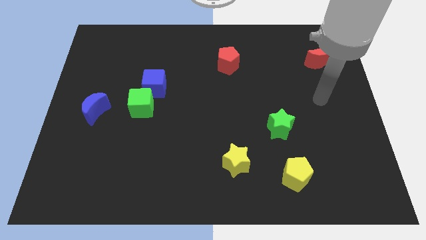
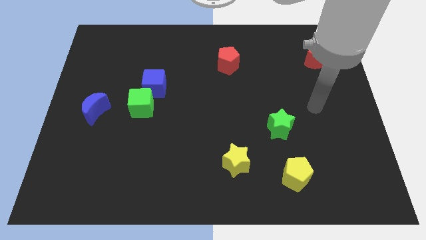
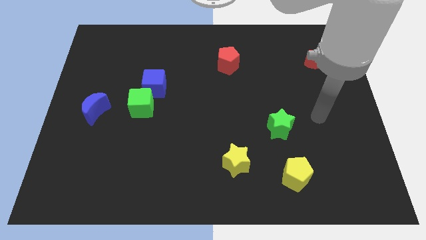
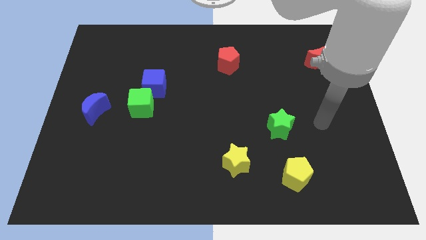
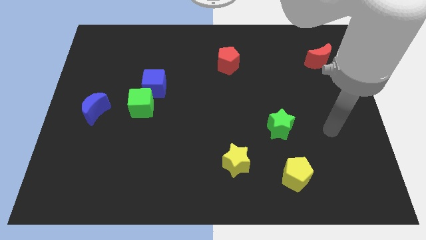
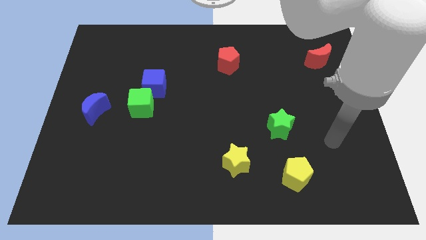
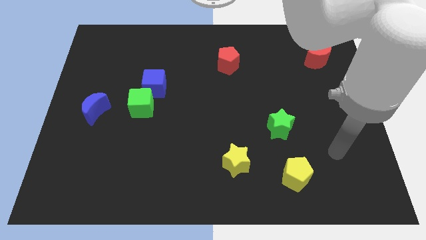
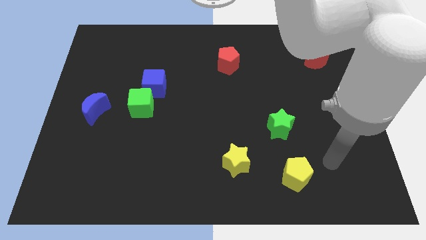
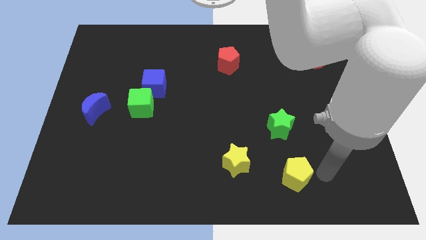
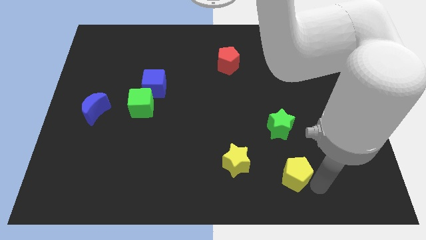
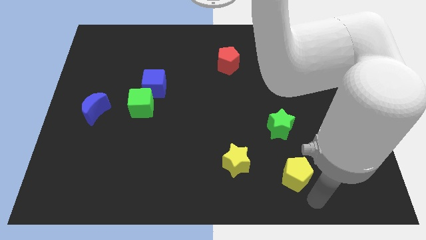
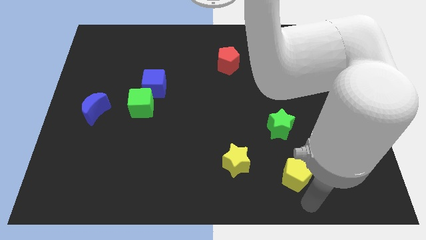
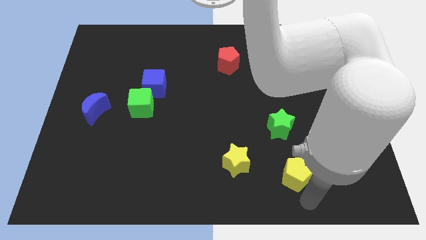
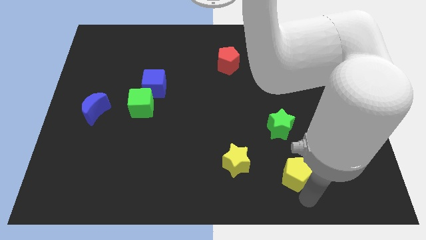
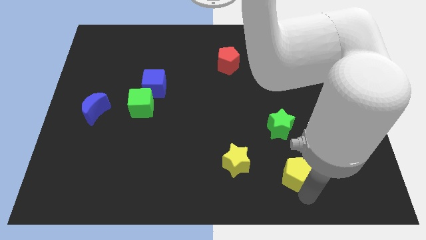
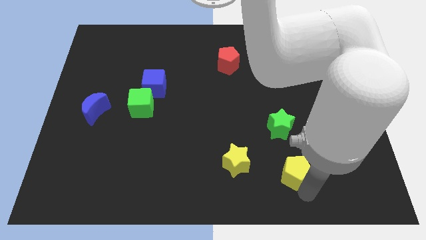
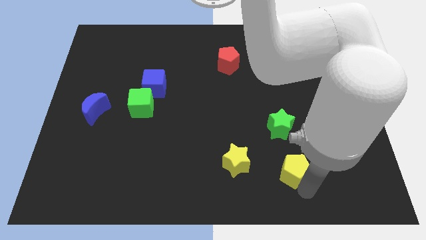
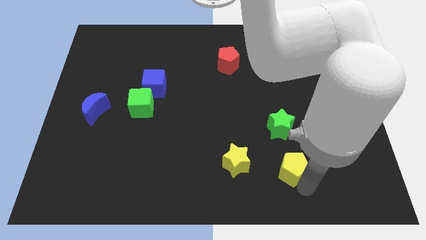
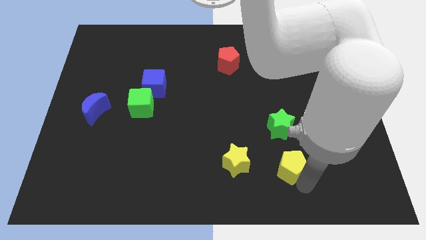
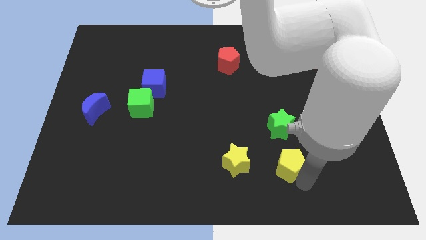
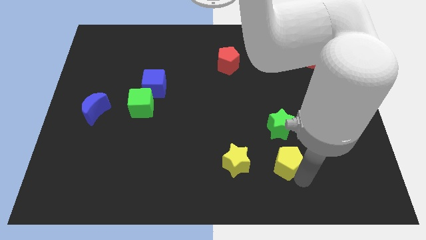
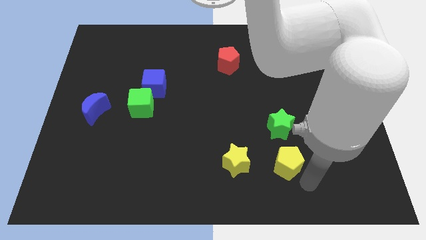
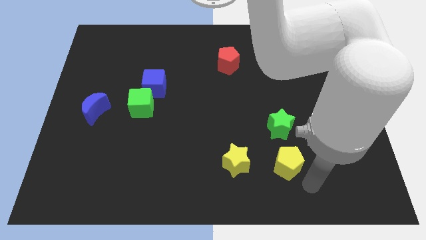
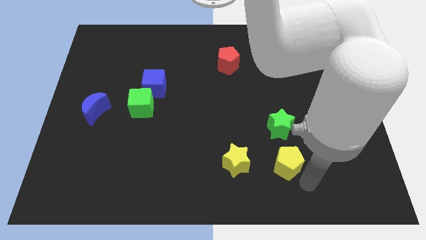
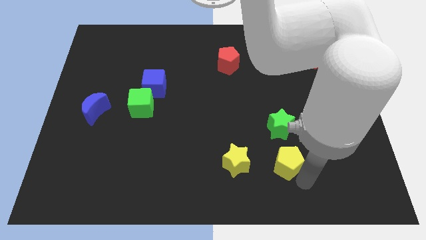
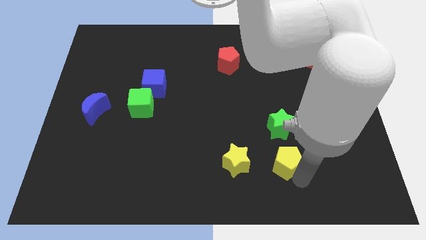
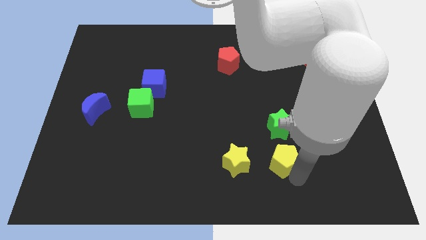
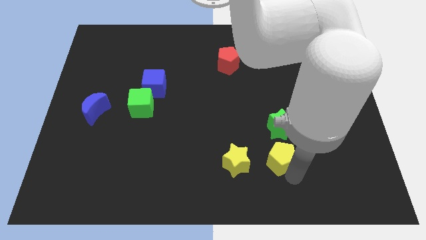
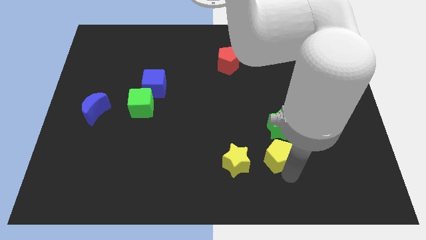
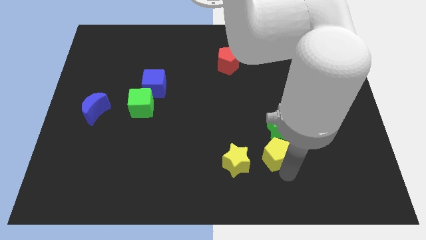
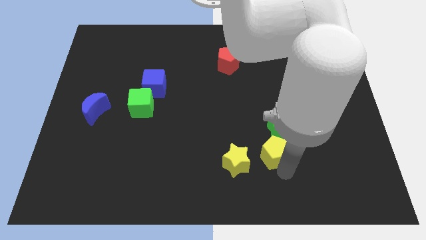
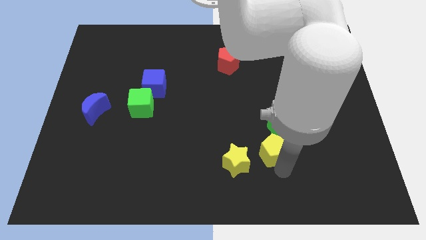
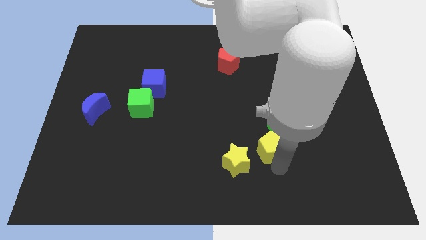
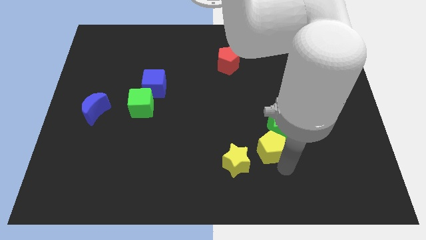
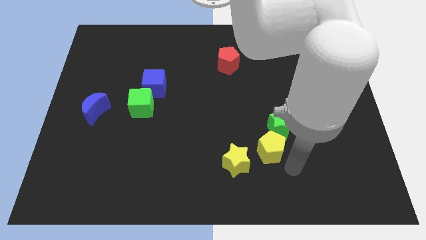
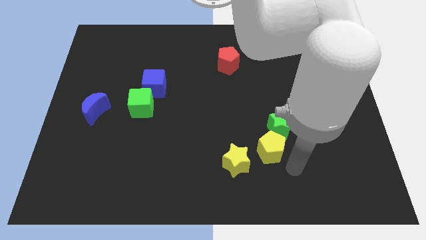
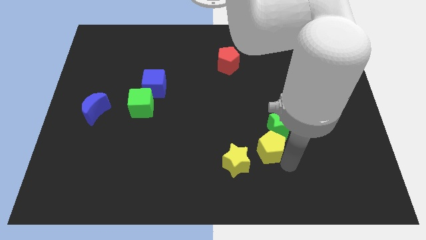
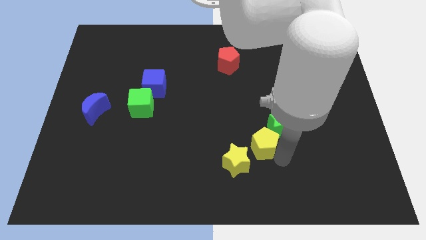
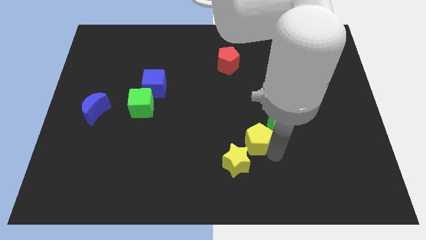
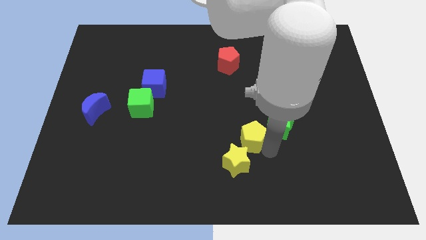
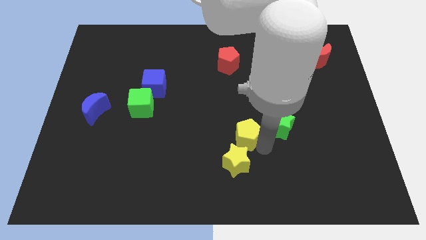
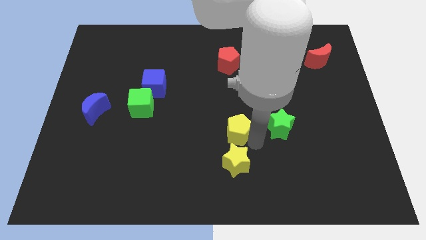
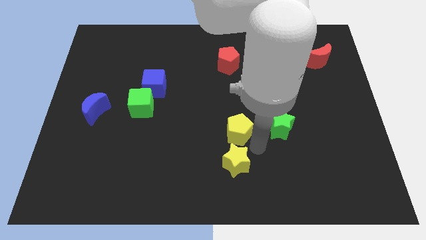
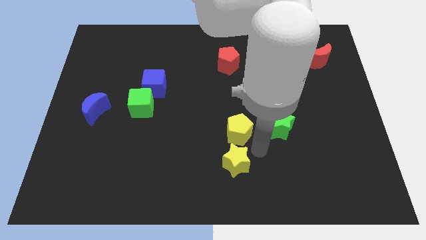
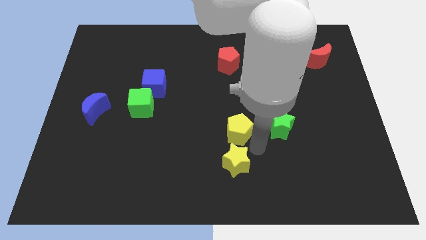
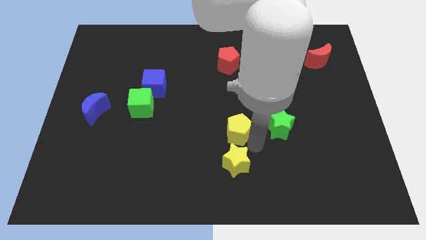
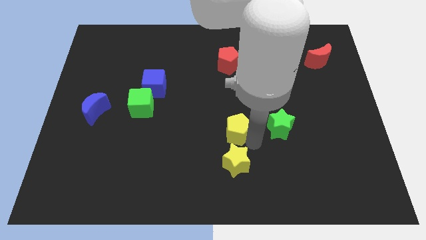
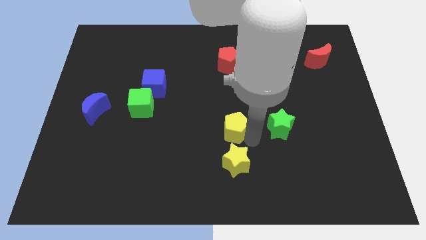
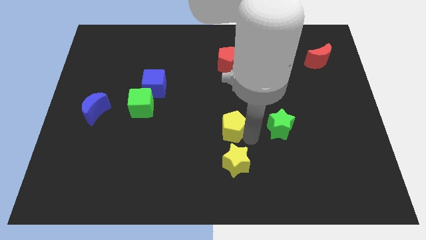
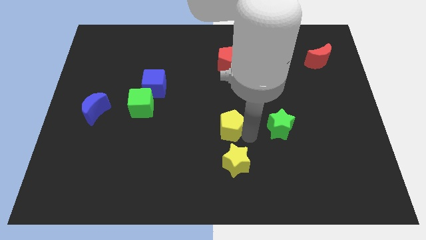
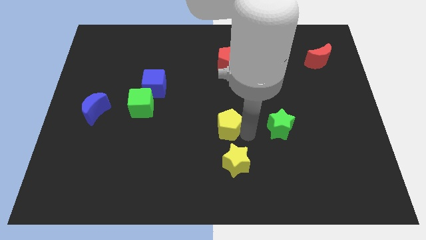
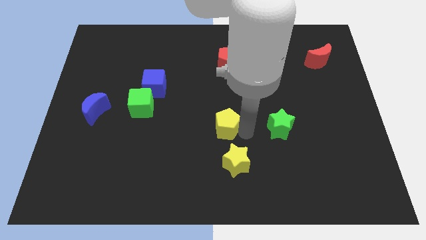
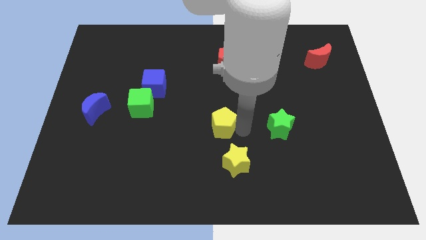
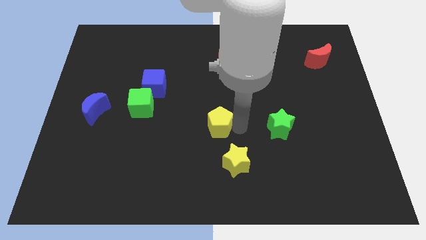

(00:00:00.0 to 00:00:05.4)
push the yellow pentagon diagonally upwards and left

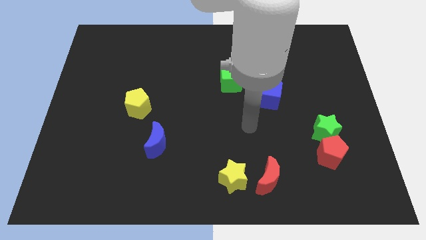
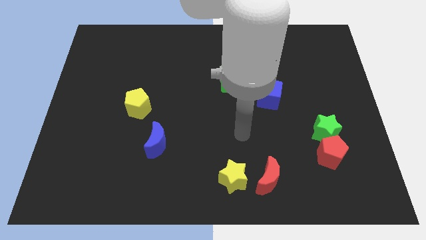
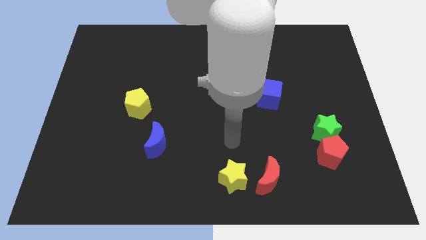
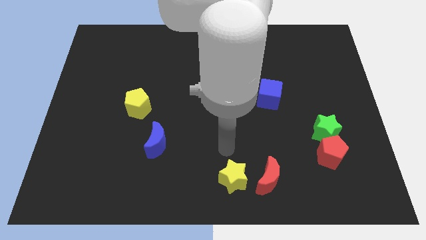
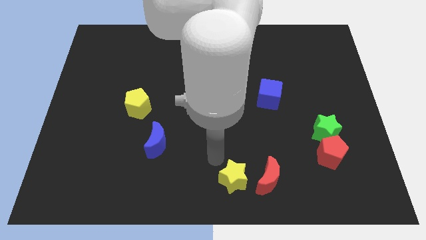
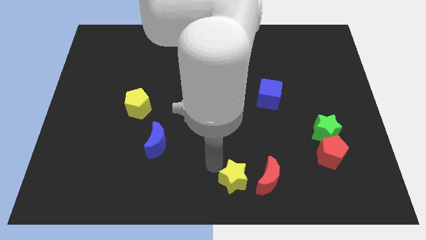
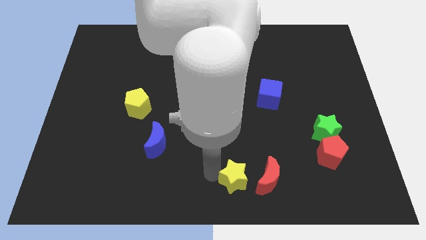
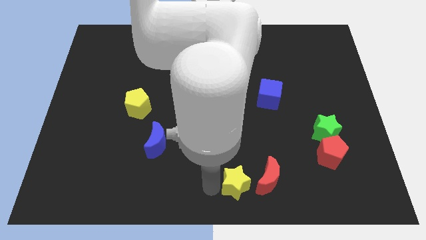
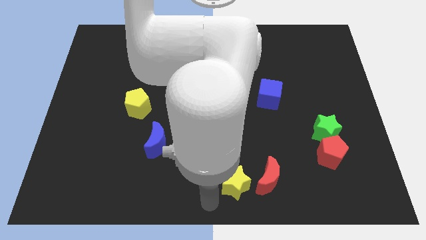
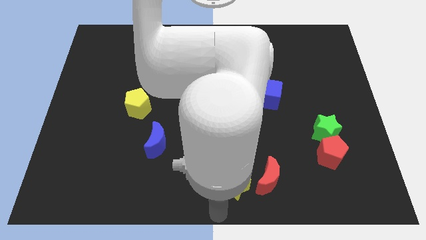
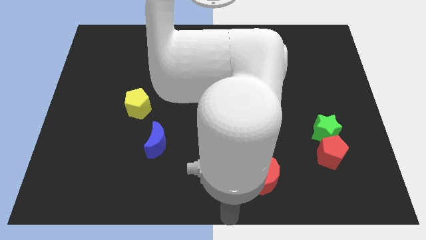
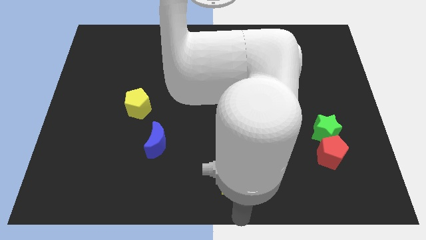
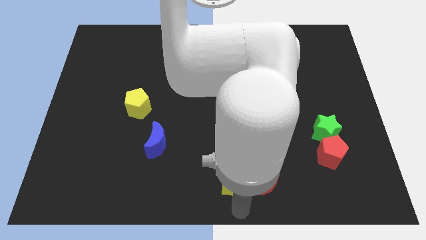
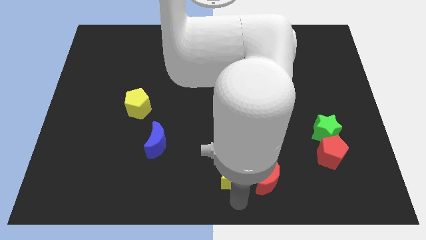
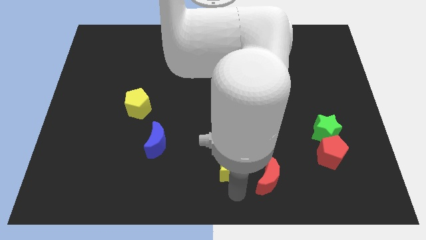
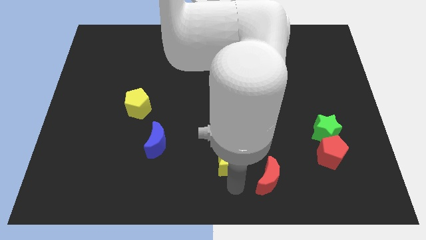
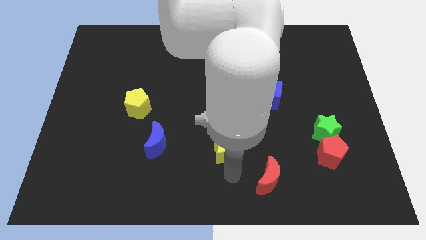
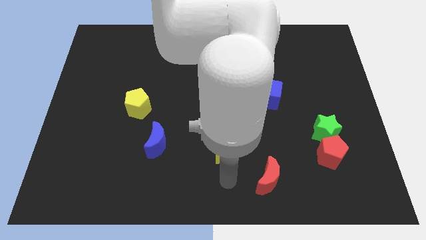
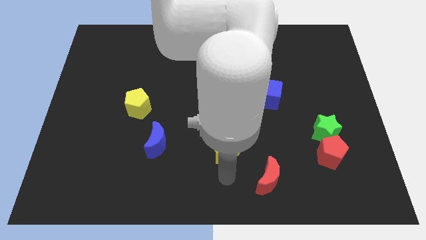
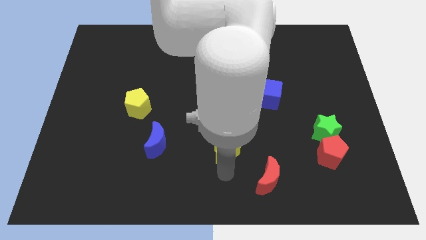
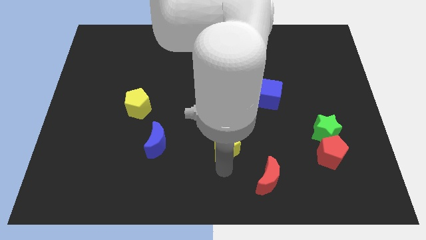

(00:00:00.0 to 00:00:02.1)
move the yellow star a bit up

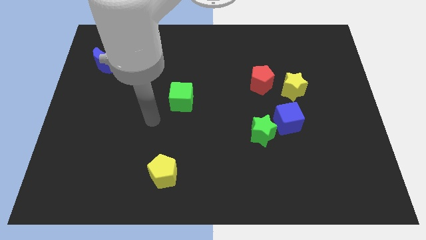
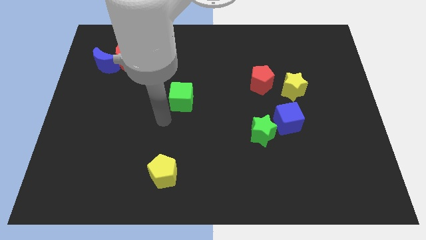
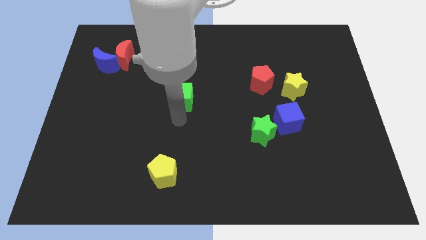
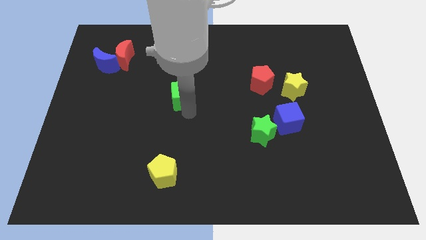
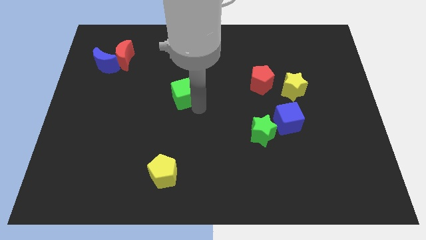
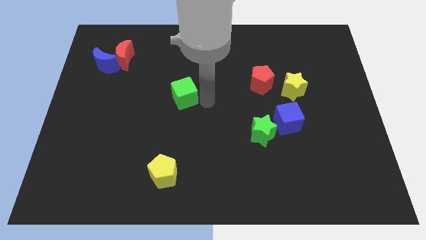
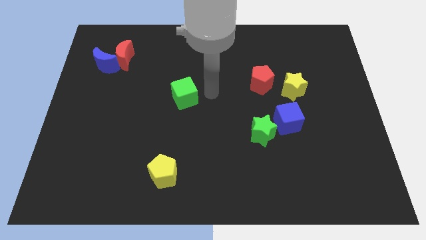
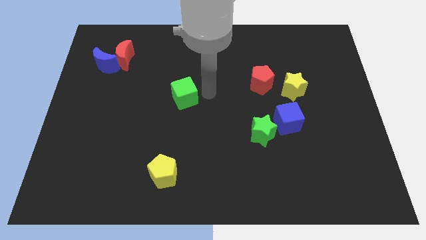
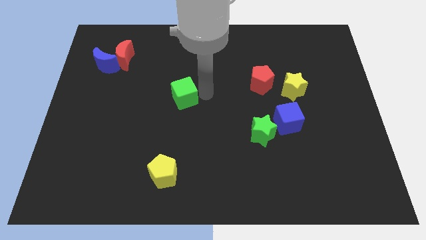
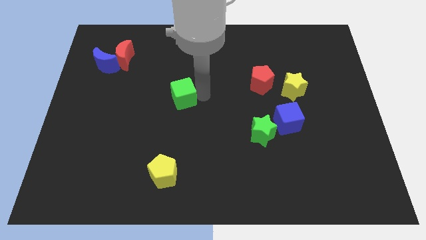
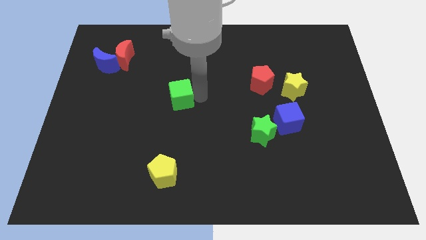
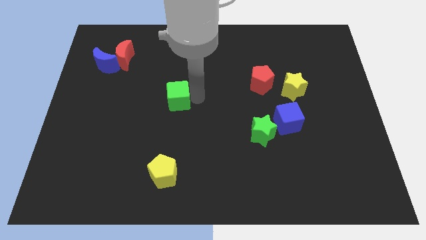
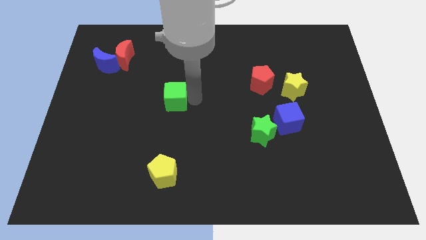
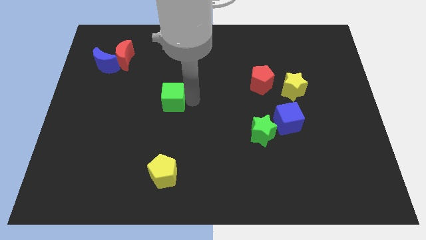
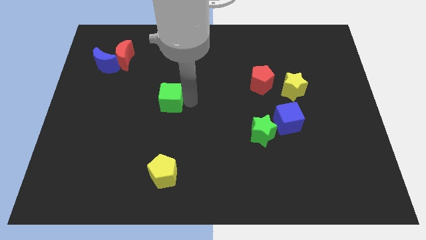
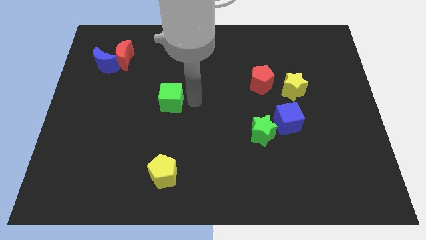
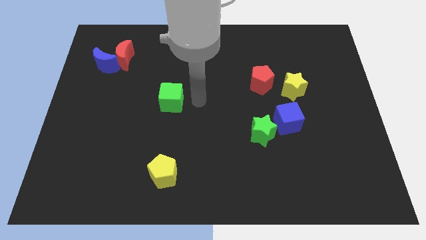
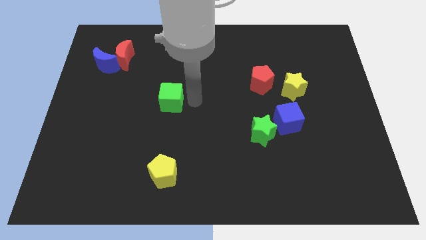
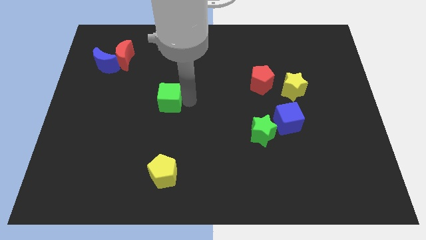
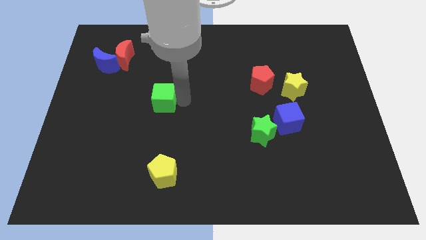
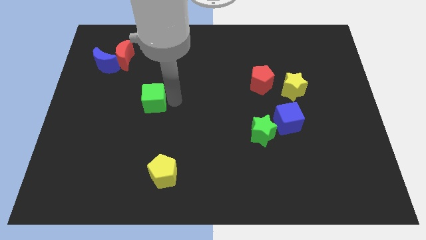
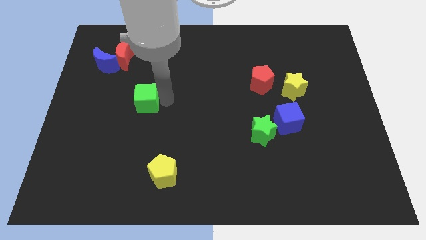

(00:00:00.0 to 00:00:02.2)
slightly move the green cube left
